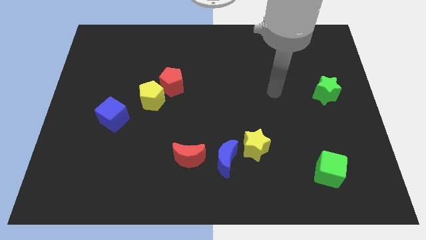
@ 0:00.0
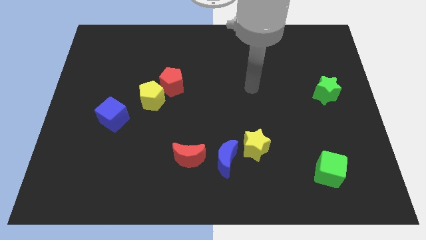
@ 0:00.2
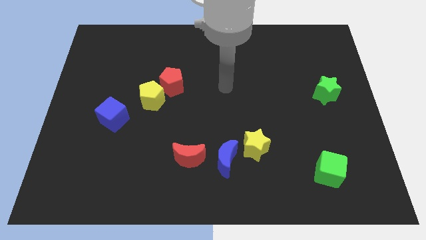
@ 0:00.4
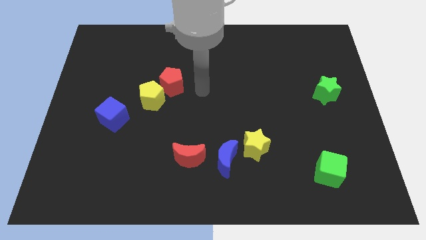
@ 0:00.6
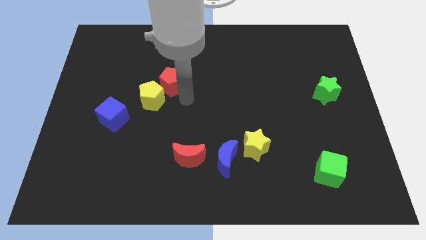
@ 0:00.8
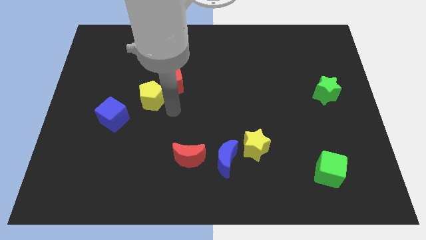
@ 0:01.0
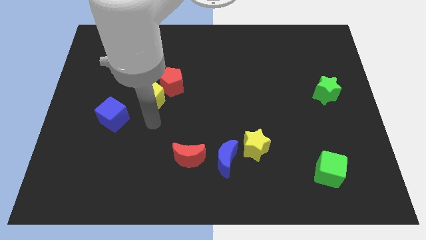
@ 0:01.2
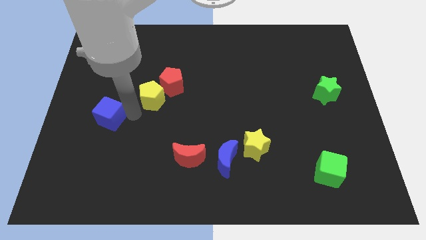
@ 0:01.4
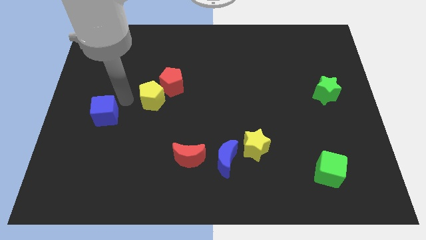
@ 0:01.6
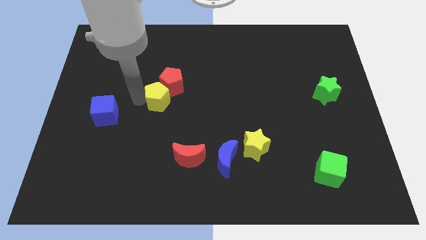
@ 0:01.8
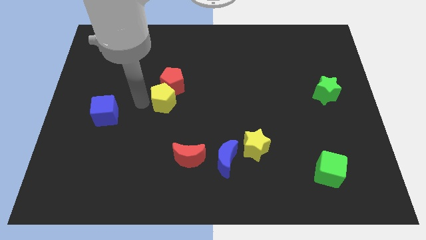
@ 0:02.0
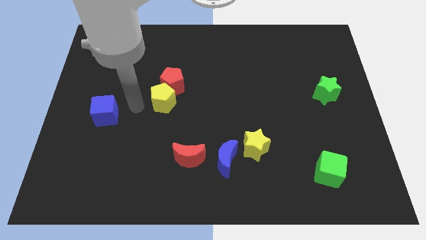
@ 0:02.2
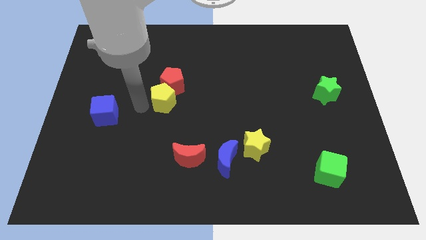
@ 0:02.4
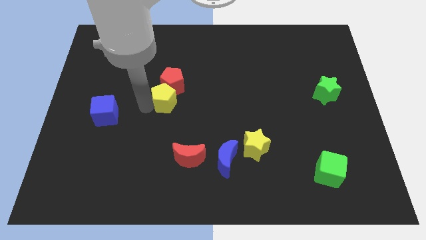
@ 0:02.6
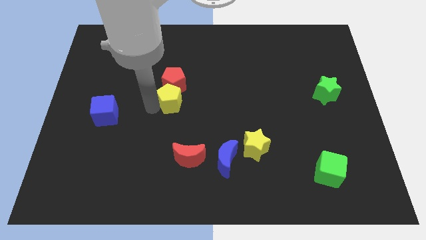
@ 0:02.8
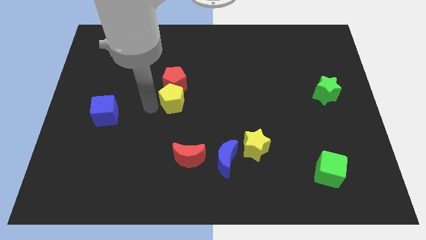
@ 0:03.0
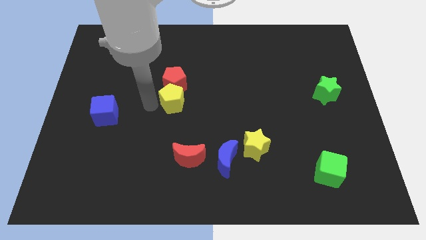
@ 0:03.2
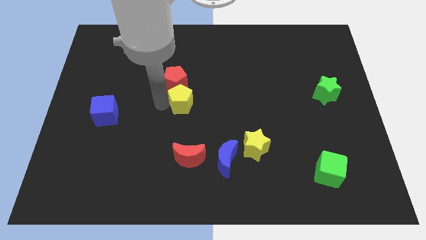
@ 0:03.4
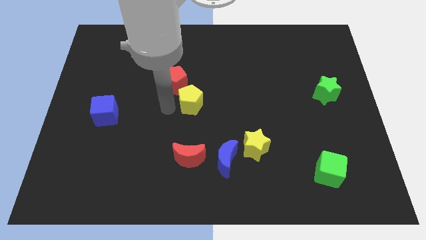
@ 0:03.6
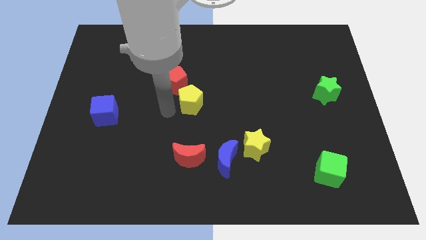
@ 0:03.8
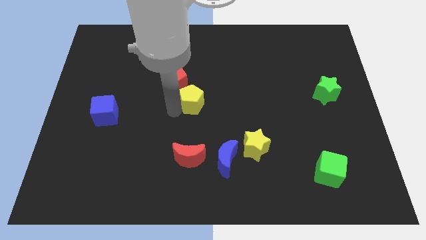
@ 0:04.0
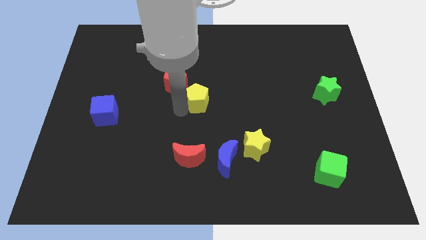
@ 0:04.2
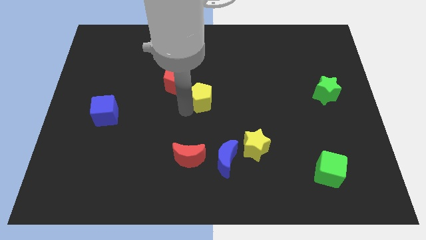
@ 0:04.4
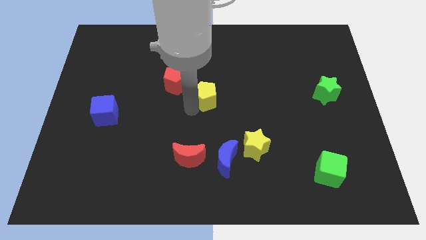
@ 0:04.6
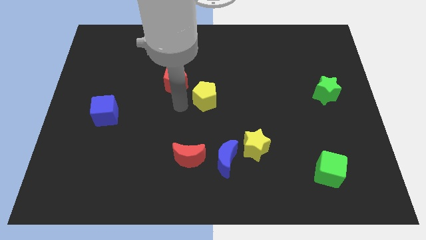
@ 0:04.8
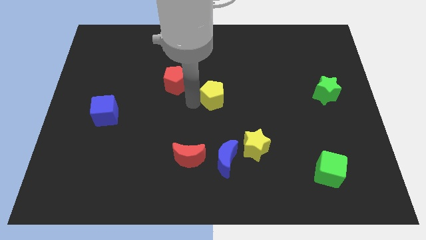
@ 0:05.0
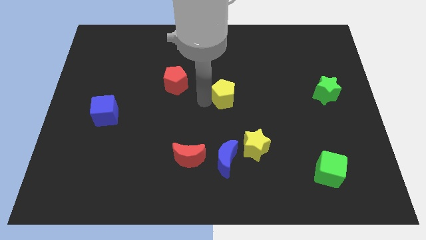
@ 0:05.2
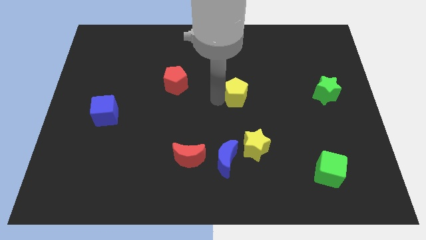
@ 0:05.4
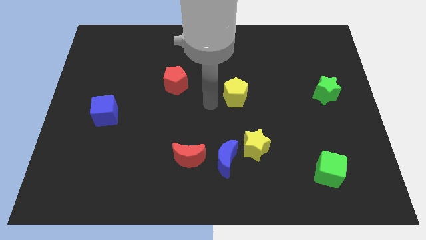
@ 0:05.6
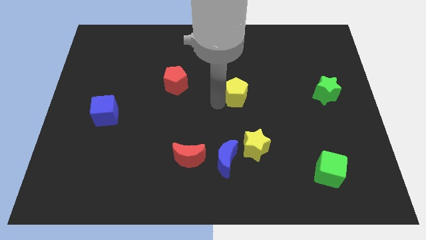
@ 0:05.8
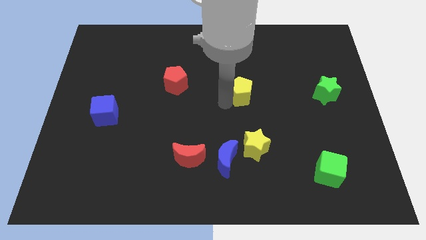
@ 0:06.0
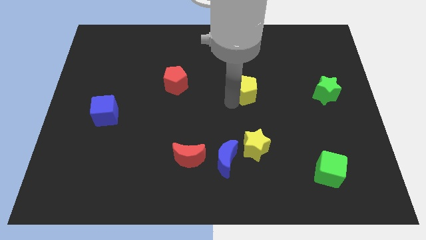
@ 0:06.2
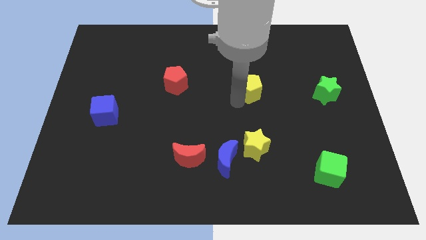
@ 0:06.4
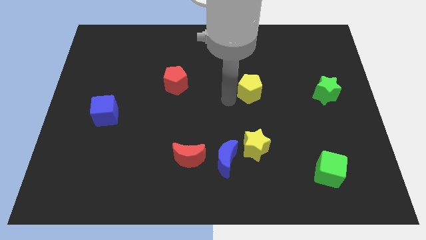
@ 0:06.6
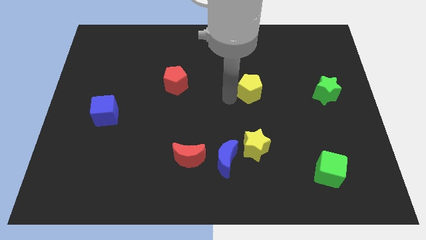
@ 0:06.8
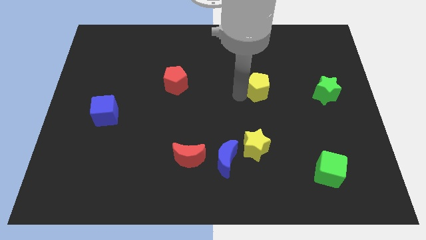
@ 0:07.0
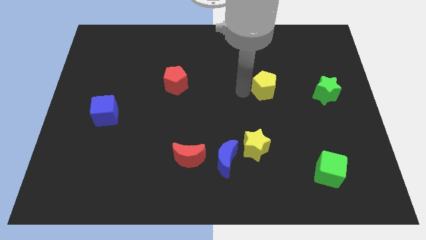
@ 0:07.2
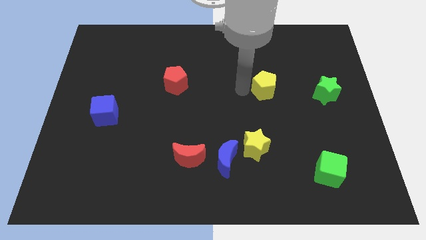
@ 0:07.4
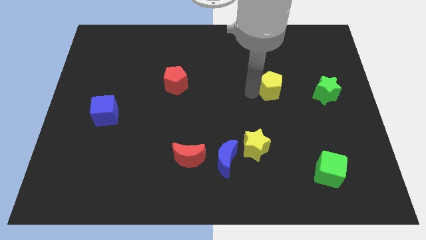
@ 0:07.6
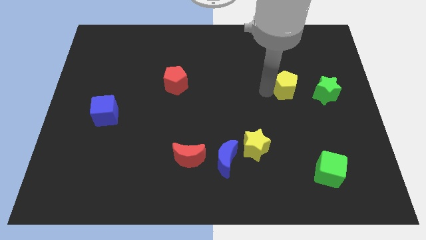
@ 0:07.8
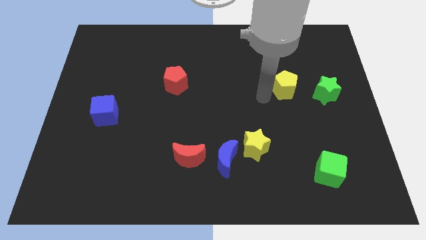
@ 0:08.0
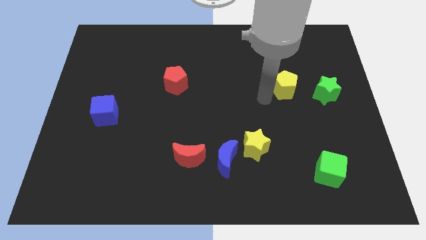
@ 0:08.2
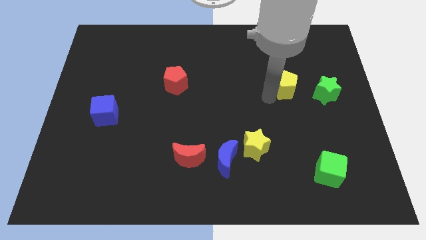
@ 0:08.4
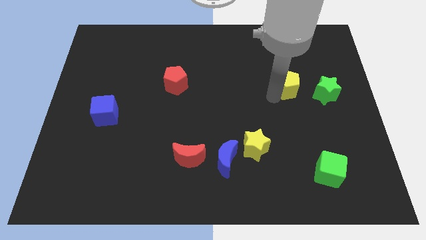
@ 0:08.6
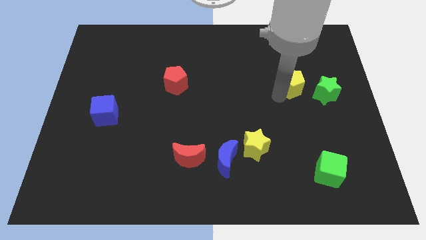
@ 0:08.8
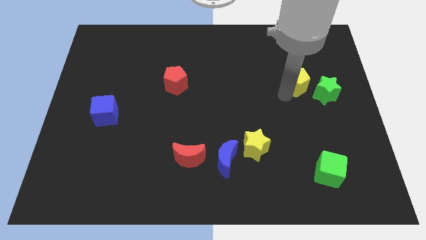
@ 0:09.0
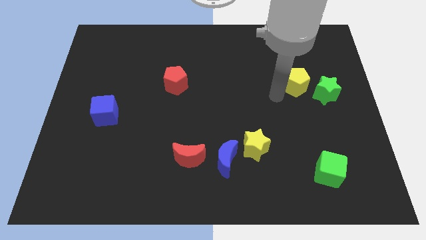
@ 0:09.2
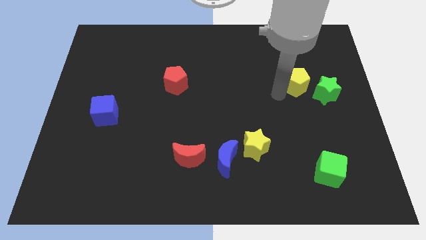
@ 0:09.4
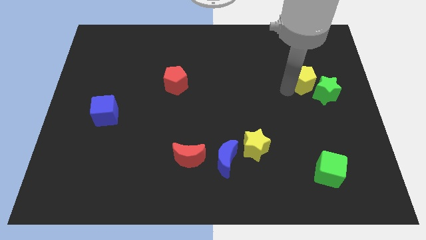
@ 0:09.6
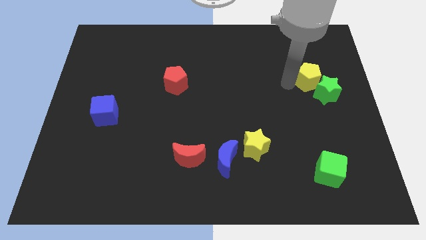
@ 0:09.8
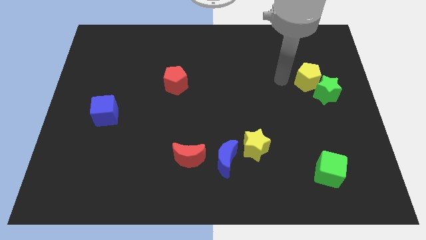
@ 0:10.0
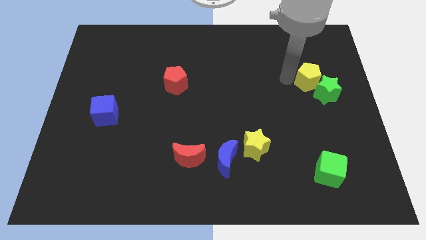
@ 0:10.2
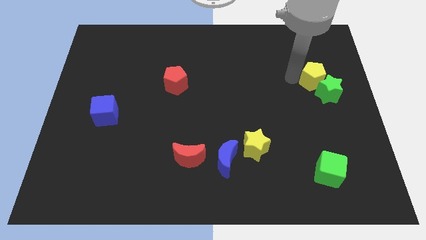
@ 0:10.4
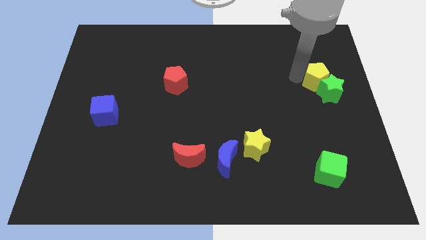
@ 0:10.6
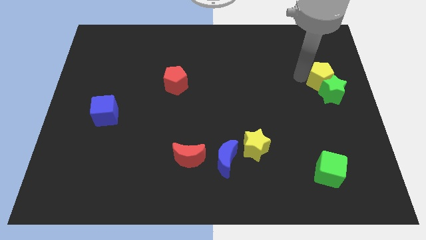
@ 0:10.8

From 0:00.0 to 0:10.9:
move the yellow pentagon to the right side

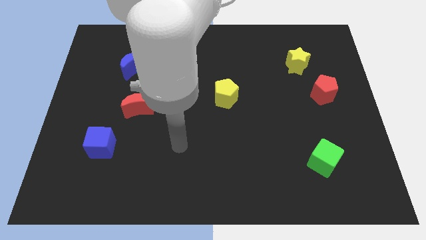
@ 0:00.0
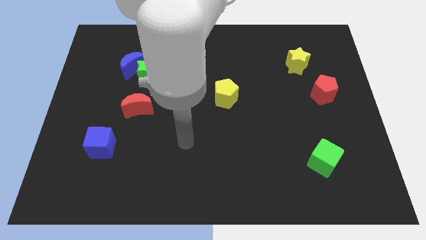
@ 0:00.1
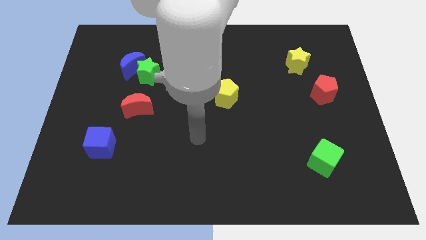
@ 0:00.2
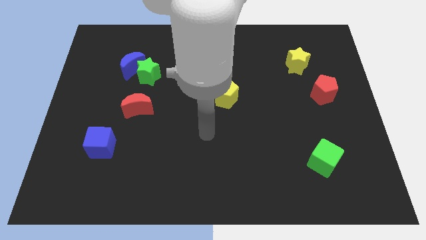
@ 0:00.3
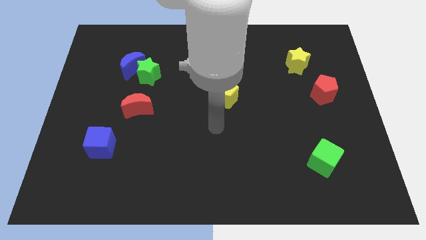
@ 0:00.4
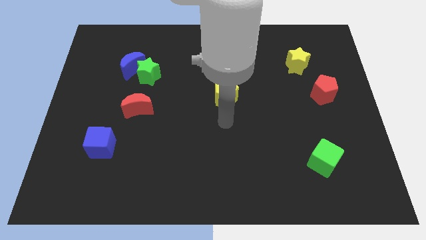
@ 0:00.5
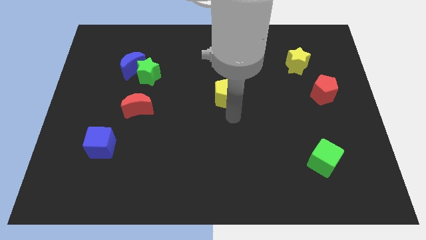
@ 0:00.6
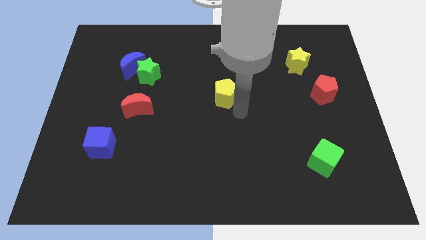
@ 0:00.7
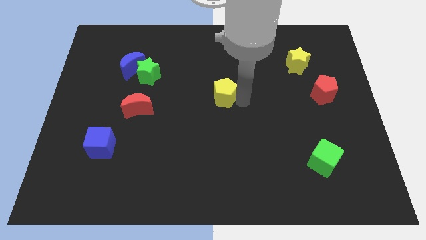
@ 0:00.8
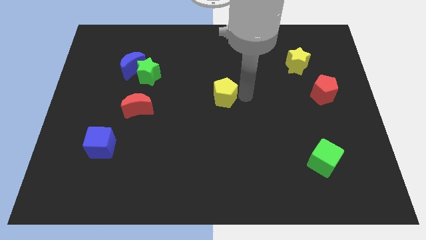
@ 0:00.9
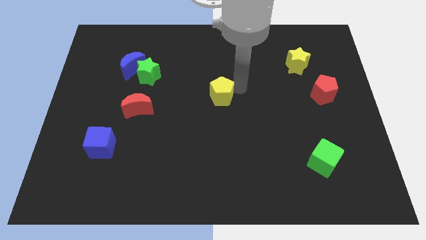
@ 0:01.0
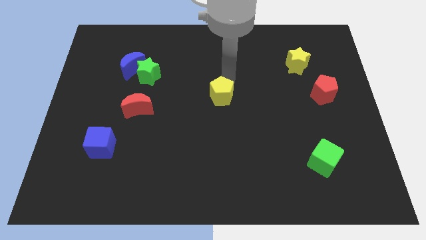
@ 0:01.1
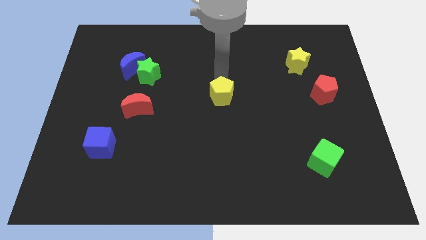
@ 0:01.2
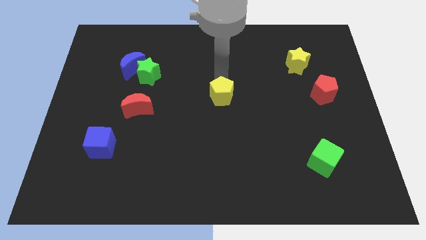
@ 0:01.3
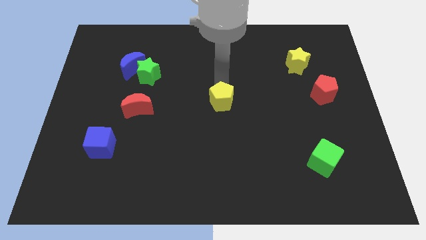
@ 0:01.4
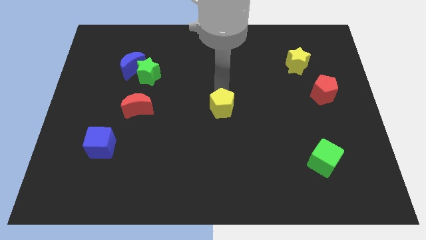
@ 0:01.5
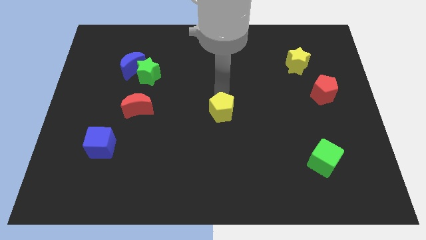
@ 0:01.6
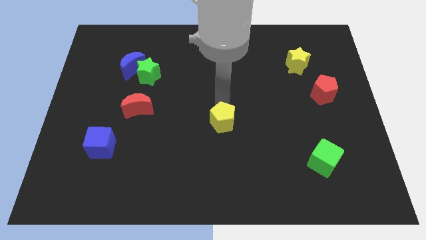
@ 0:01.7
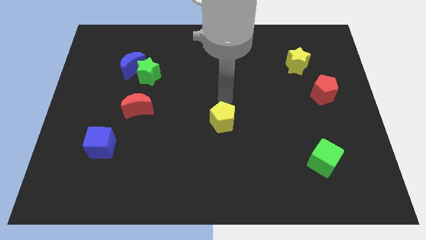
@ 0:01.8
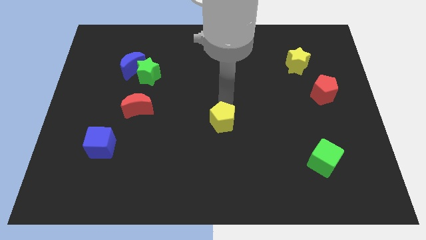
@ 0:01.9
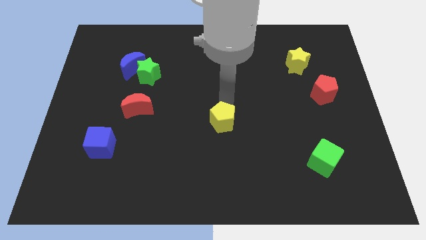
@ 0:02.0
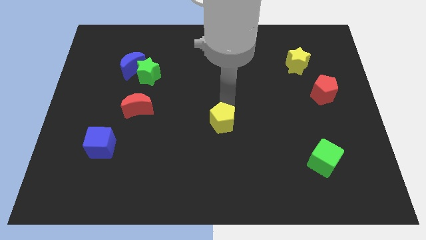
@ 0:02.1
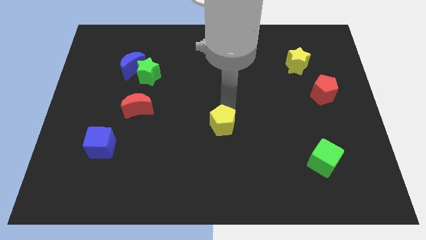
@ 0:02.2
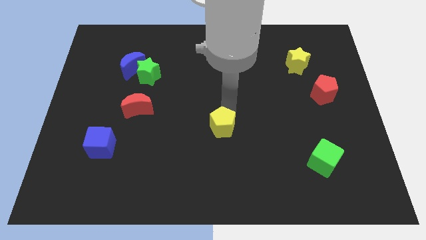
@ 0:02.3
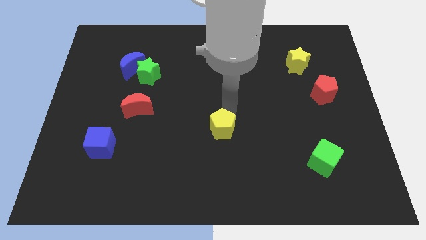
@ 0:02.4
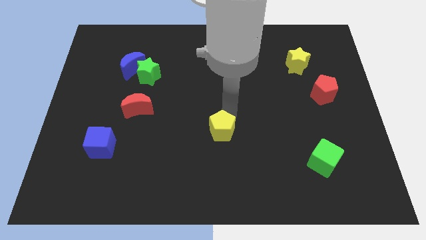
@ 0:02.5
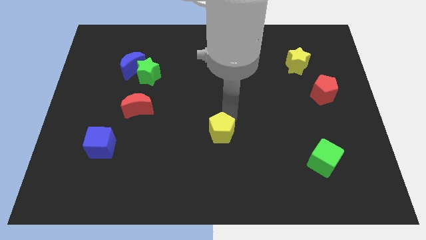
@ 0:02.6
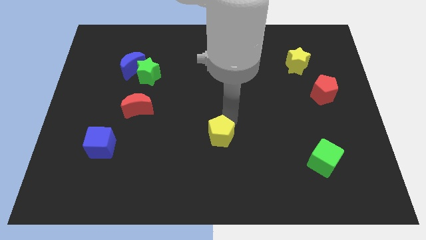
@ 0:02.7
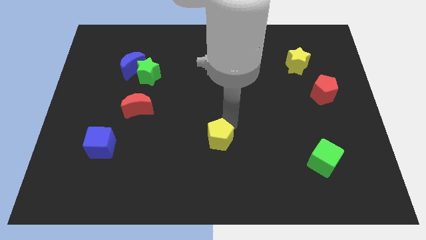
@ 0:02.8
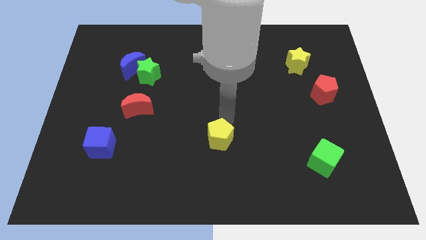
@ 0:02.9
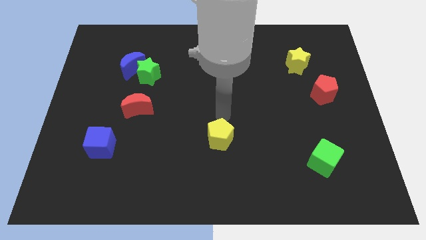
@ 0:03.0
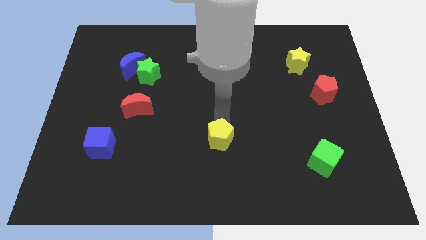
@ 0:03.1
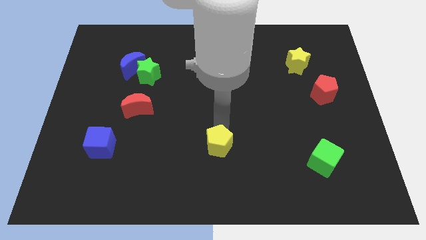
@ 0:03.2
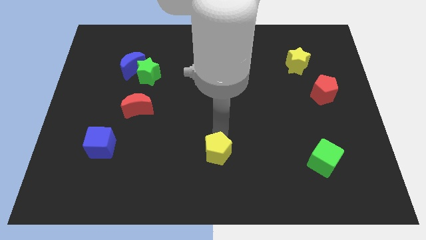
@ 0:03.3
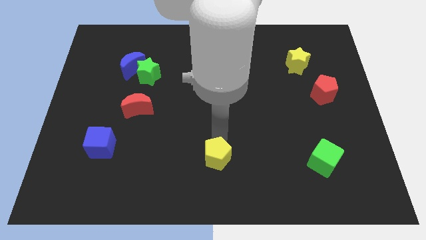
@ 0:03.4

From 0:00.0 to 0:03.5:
slide the yellow pentagon to the bottom side
